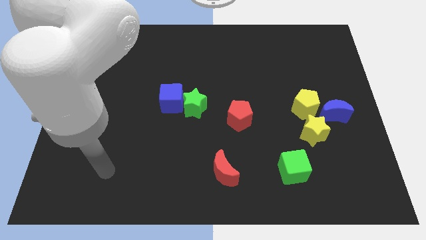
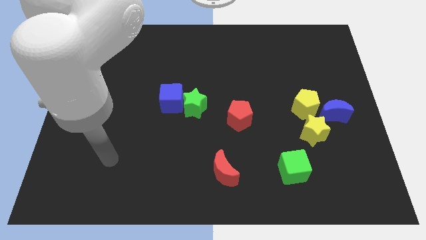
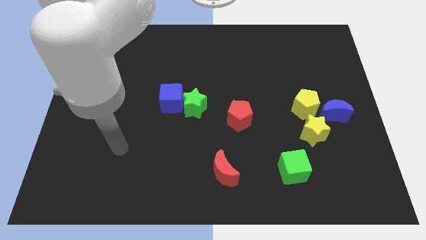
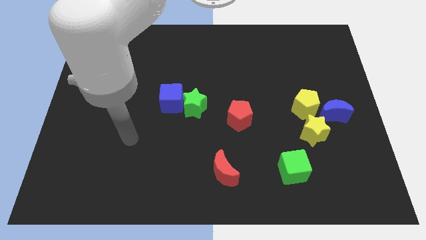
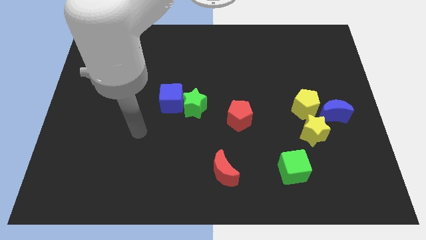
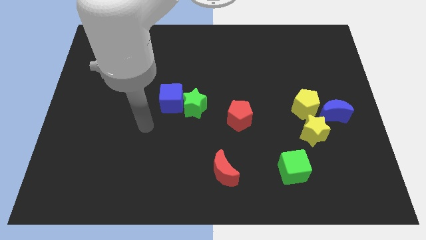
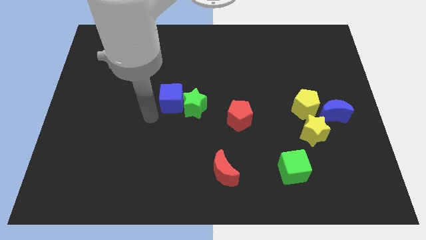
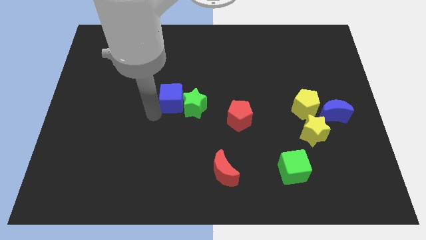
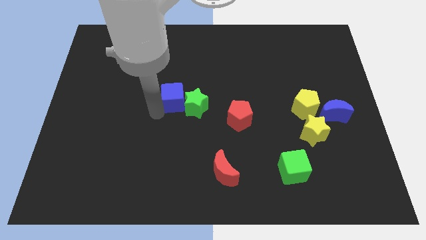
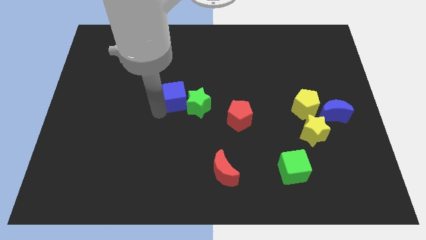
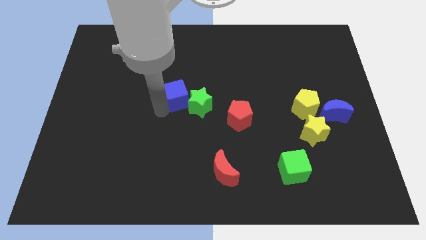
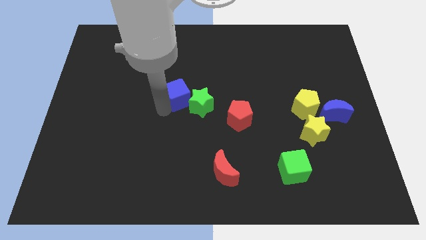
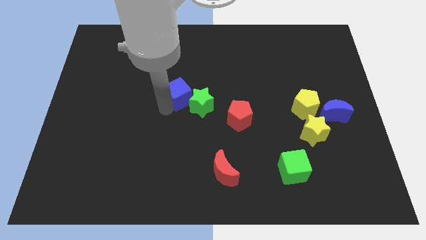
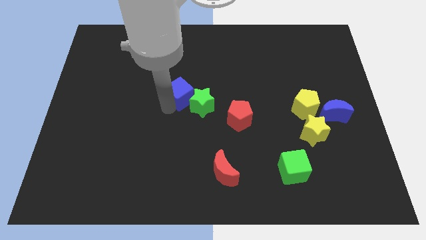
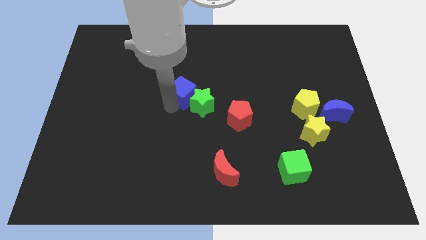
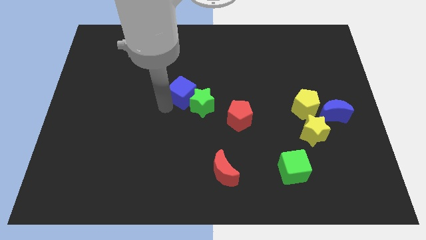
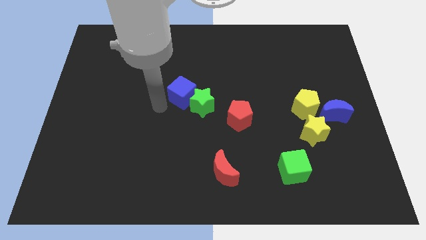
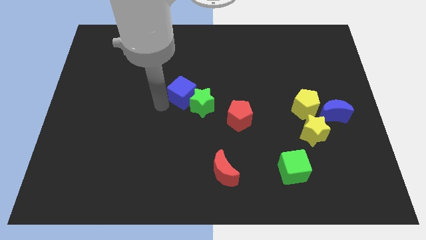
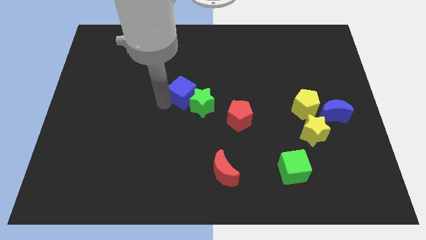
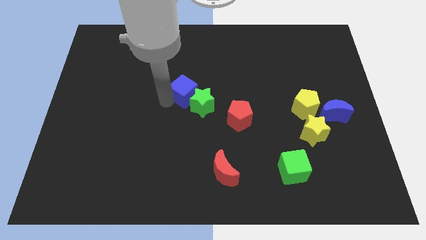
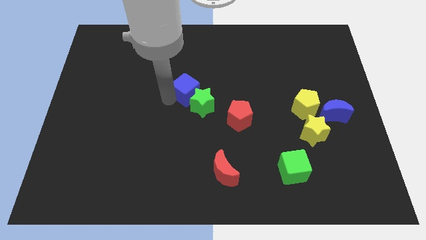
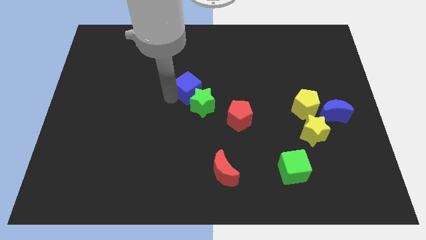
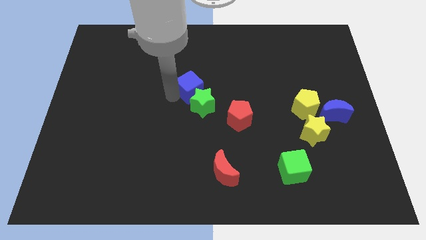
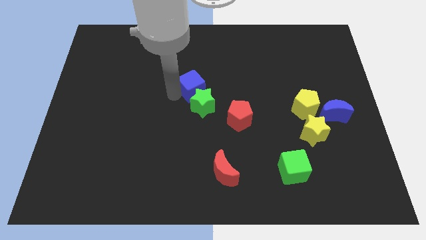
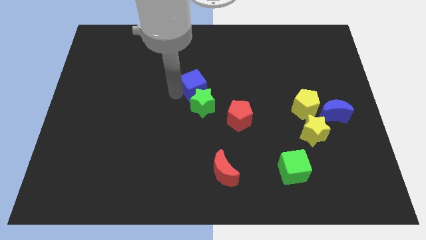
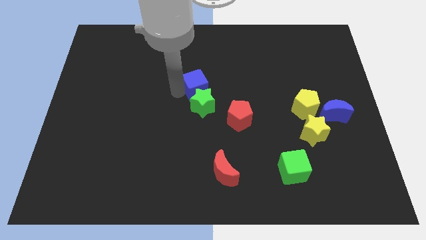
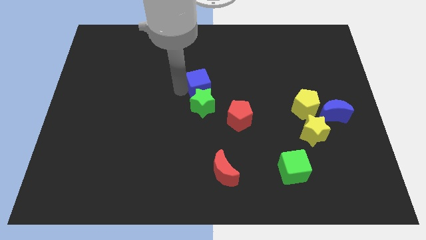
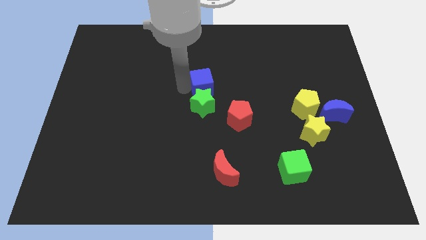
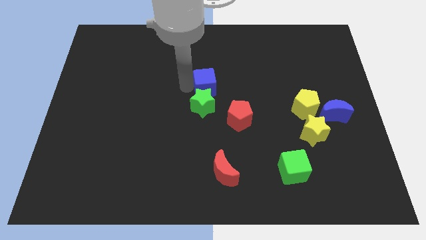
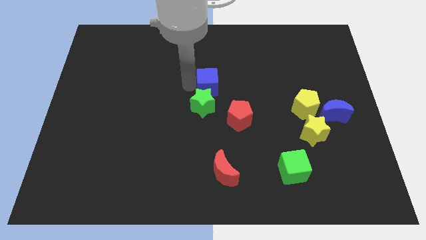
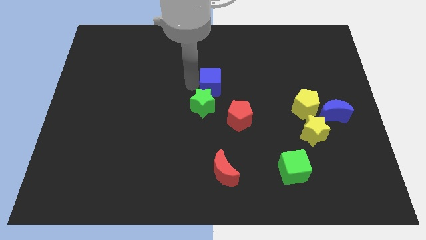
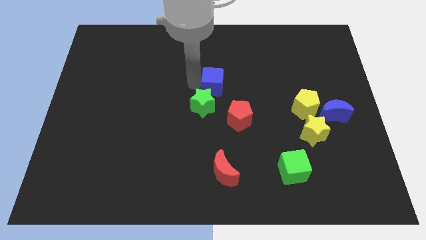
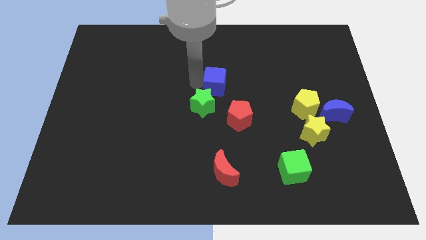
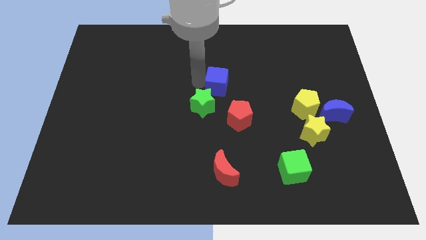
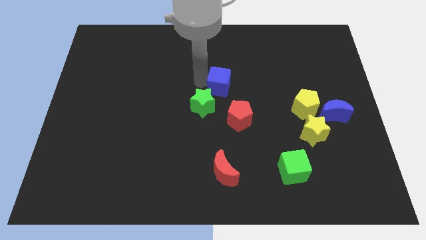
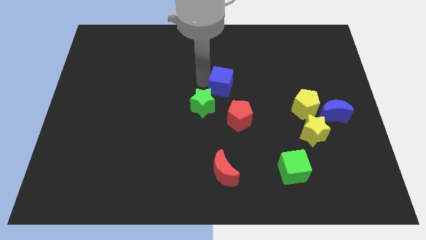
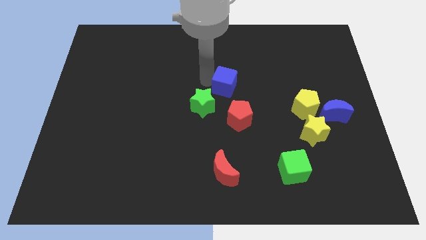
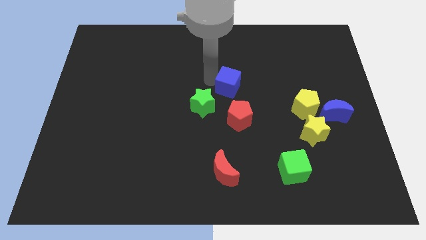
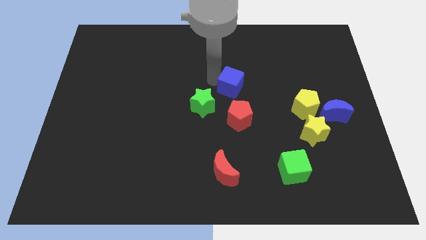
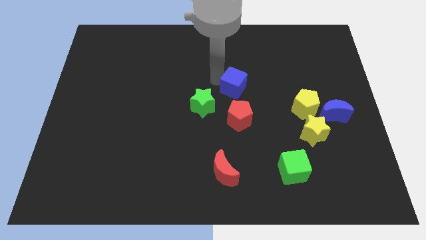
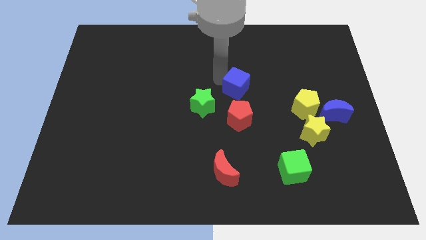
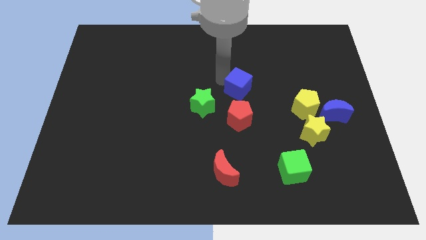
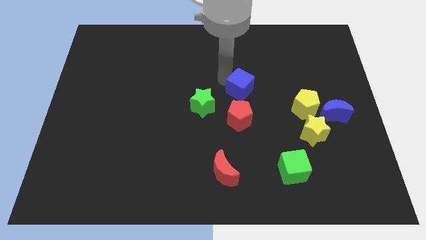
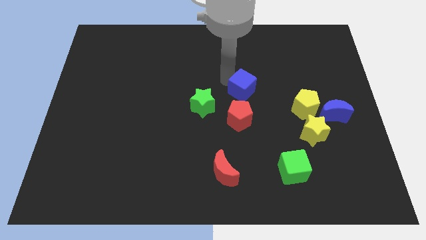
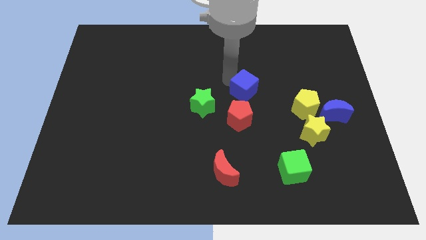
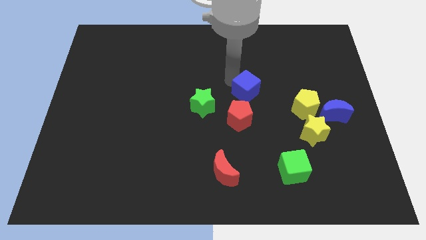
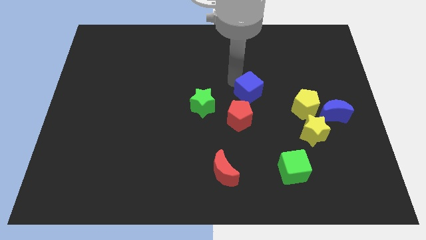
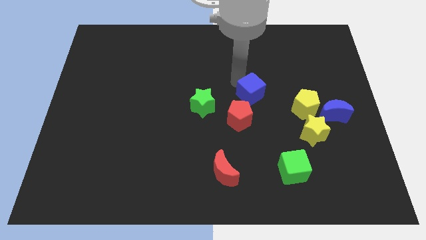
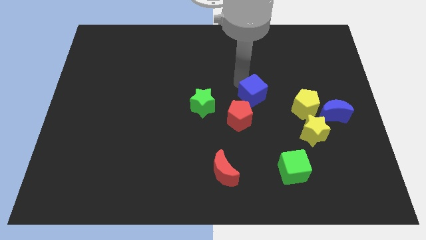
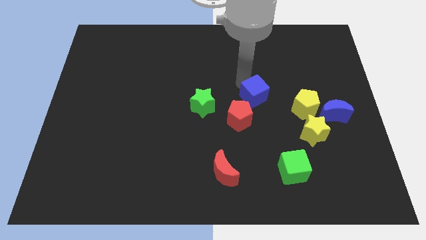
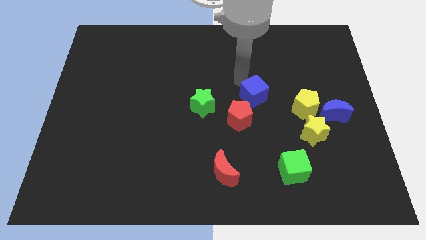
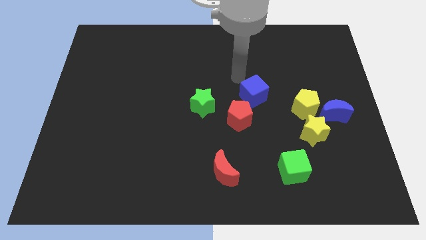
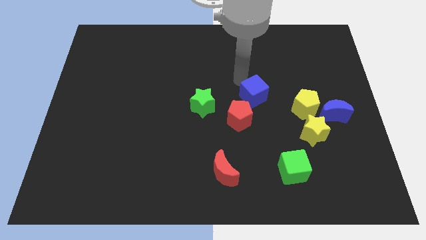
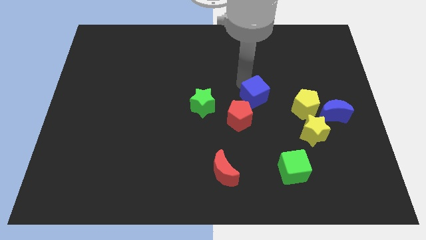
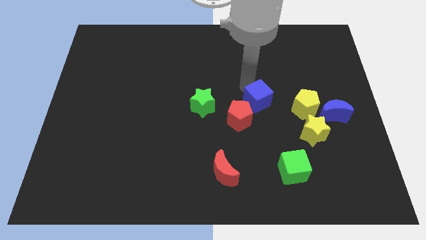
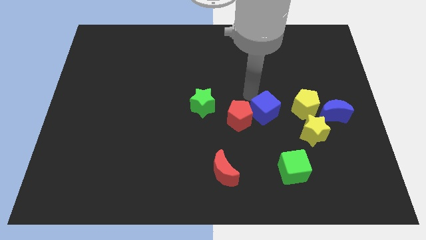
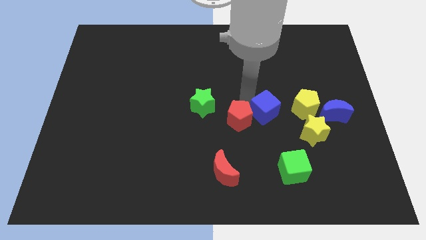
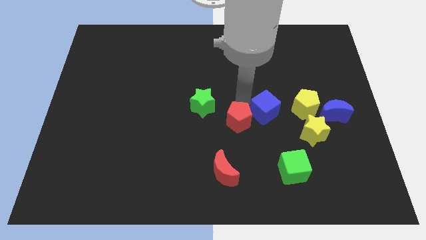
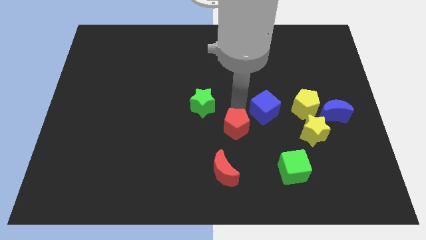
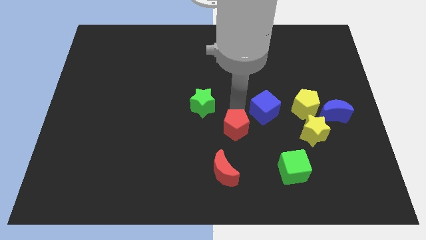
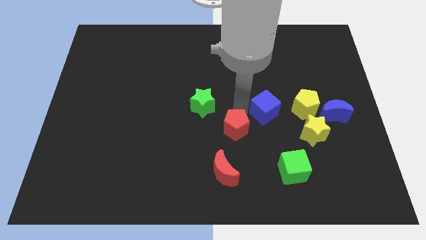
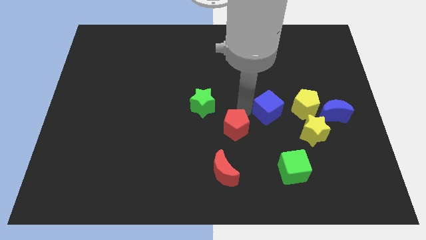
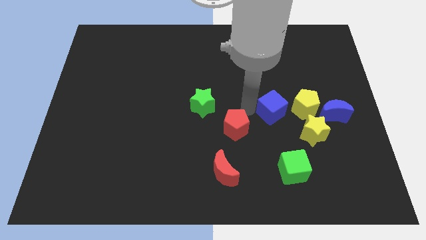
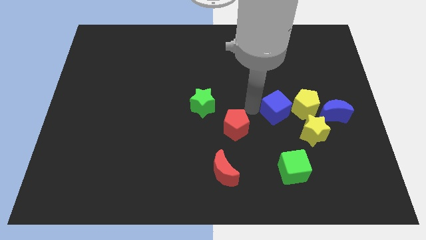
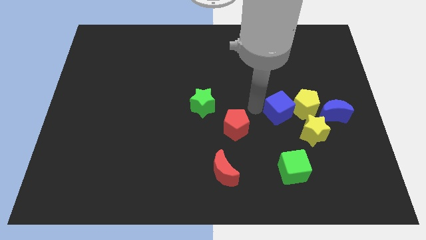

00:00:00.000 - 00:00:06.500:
push the blue cube towards the yellow pentagon
